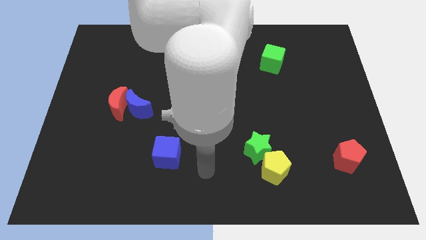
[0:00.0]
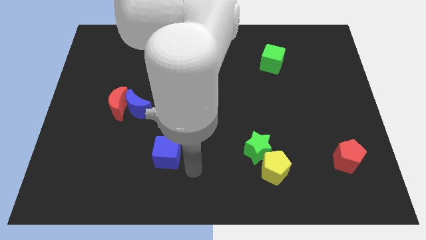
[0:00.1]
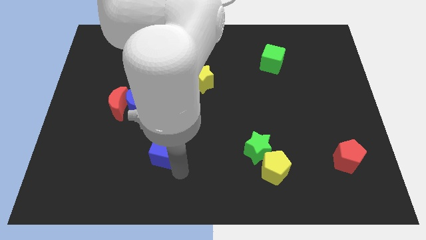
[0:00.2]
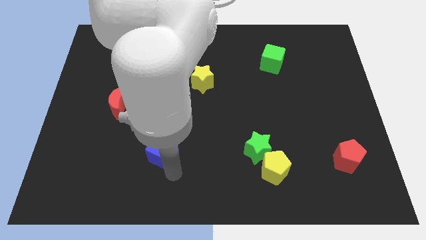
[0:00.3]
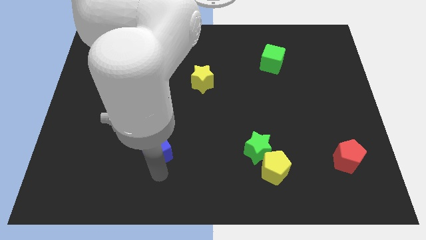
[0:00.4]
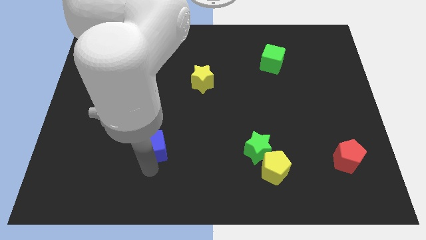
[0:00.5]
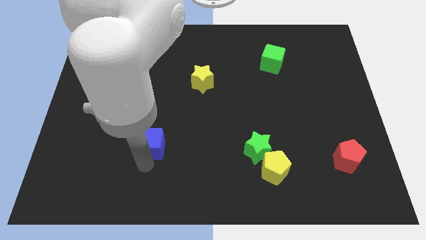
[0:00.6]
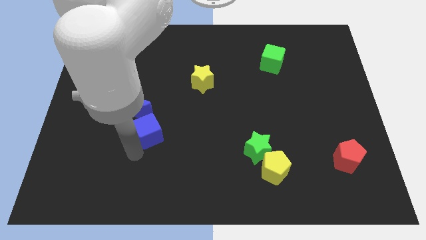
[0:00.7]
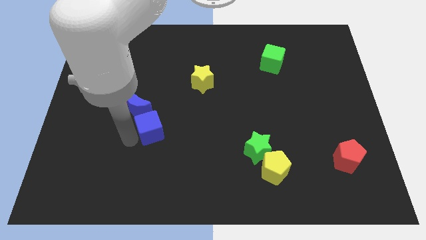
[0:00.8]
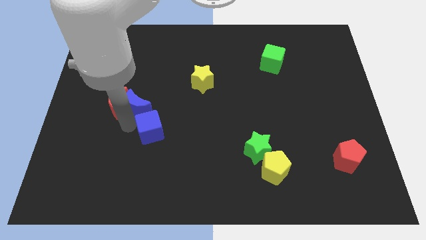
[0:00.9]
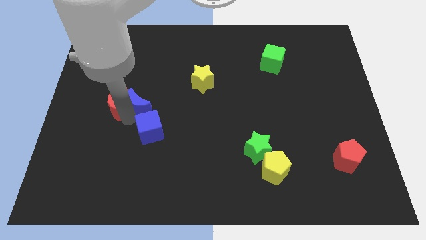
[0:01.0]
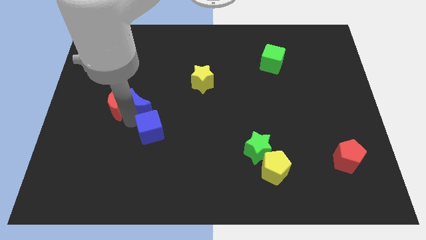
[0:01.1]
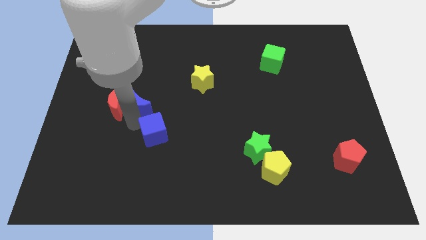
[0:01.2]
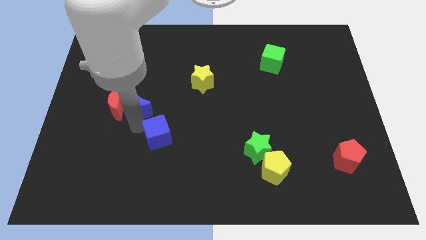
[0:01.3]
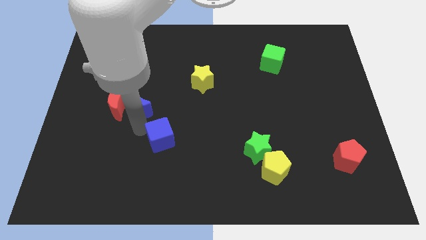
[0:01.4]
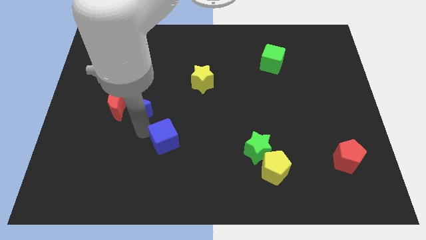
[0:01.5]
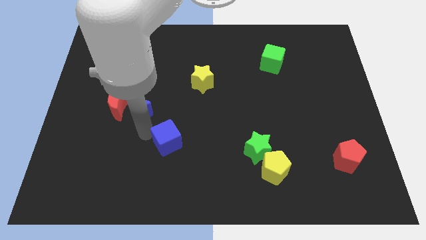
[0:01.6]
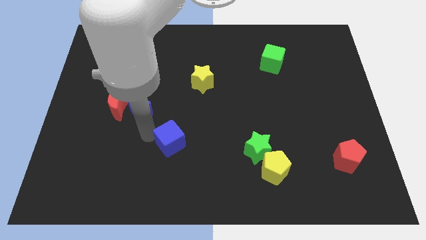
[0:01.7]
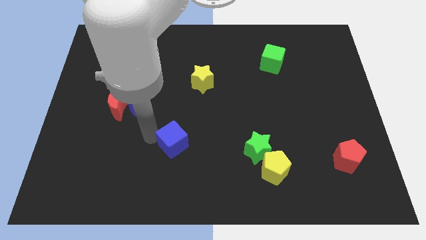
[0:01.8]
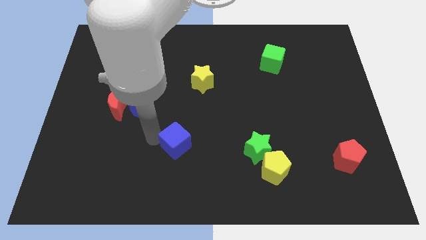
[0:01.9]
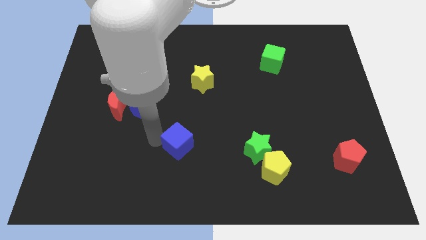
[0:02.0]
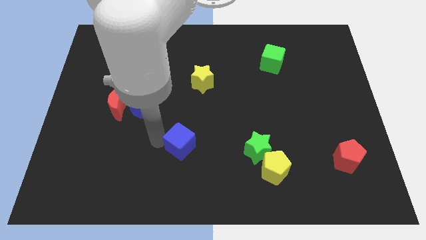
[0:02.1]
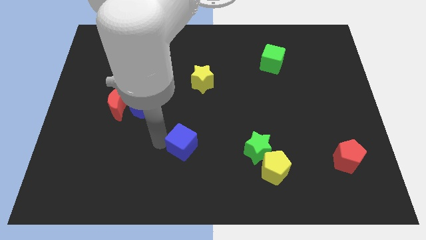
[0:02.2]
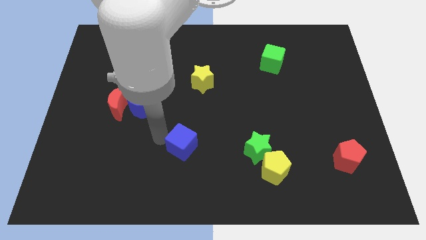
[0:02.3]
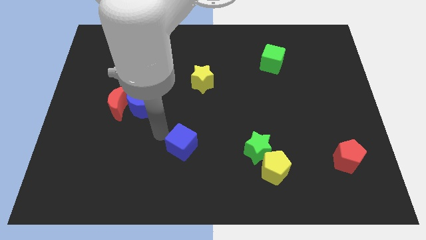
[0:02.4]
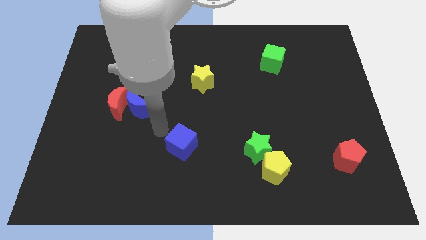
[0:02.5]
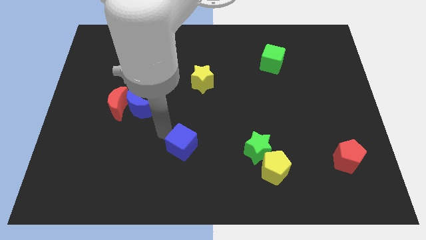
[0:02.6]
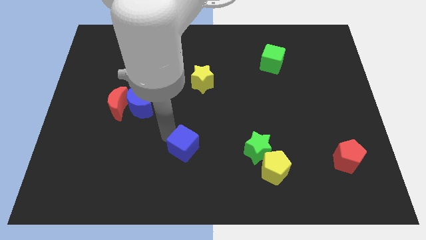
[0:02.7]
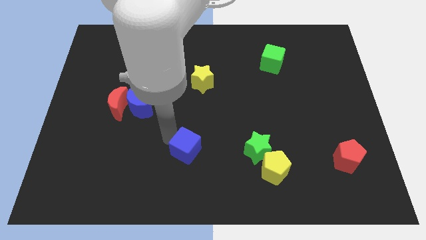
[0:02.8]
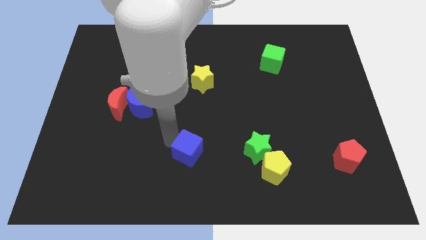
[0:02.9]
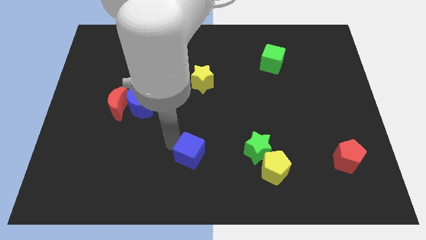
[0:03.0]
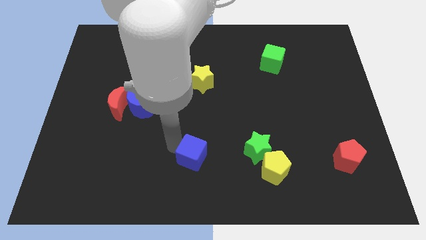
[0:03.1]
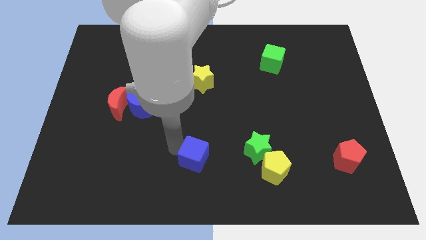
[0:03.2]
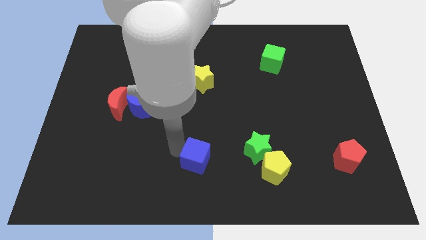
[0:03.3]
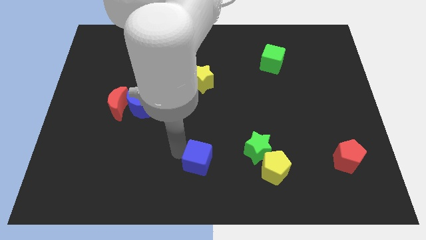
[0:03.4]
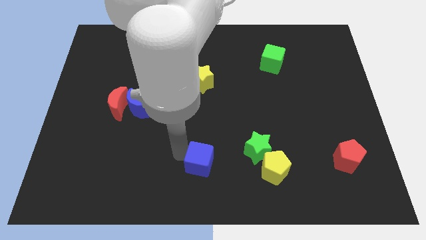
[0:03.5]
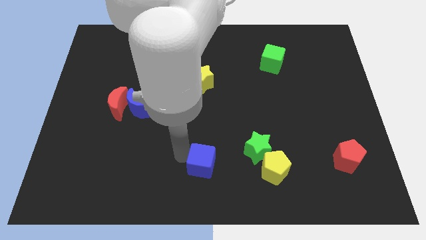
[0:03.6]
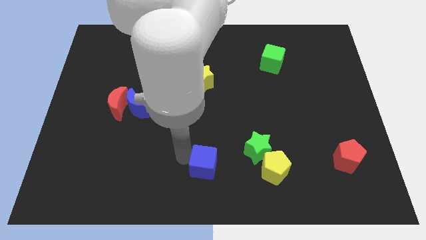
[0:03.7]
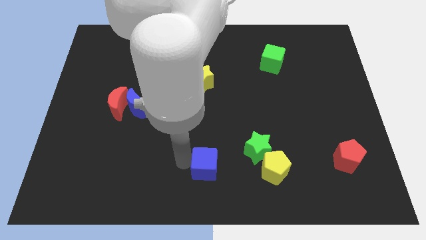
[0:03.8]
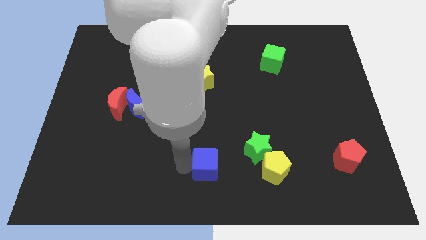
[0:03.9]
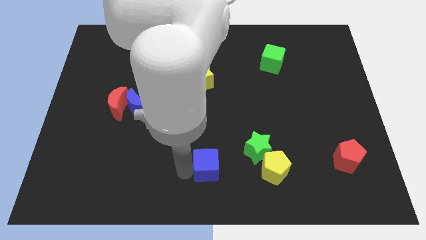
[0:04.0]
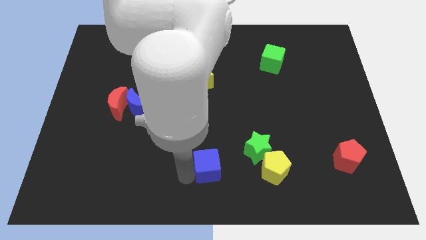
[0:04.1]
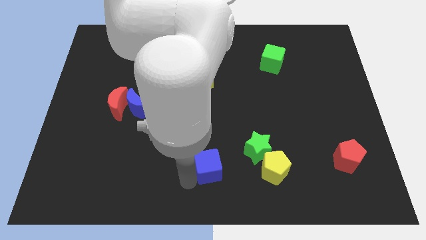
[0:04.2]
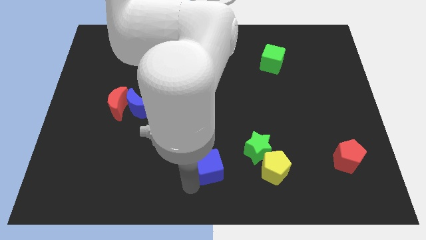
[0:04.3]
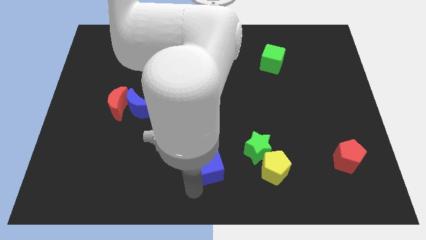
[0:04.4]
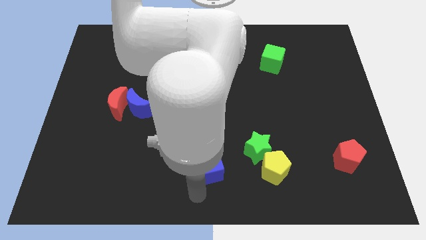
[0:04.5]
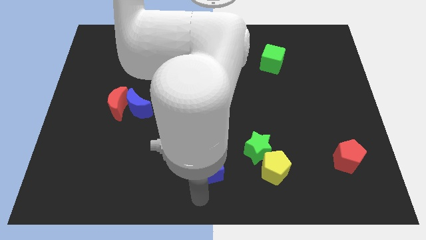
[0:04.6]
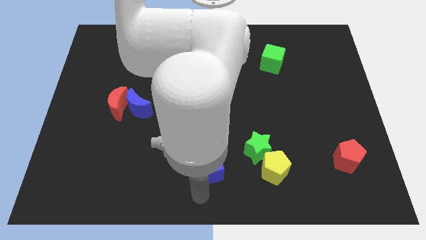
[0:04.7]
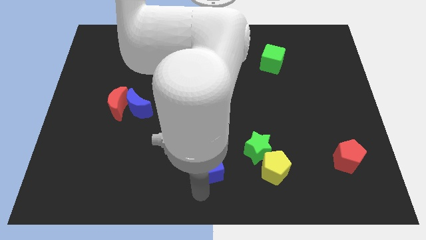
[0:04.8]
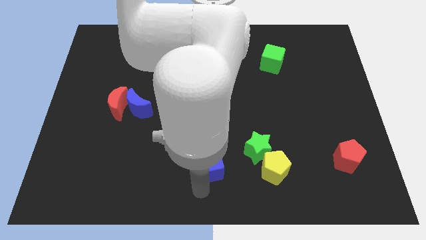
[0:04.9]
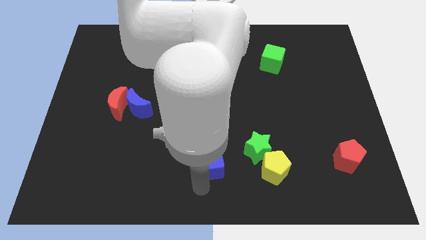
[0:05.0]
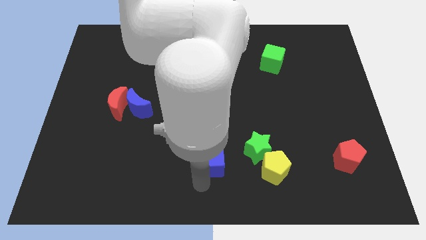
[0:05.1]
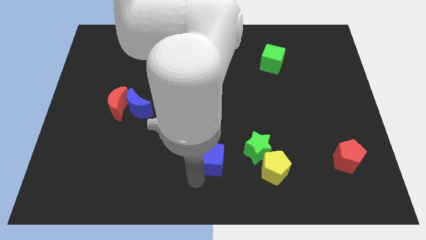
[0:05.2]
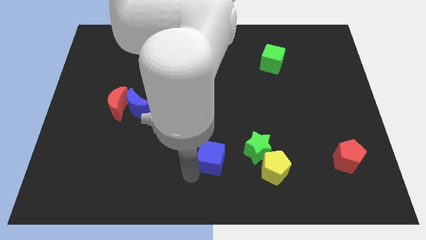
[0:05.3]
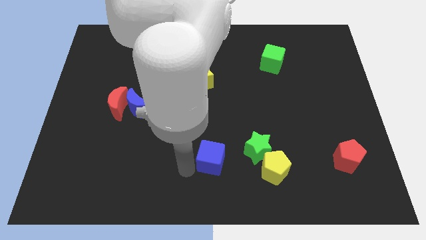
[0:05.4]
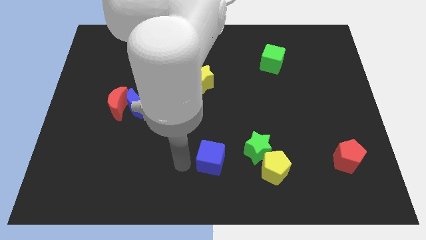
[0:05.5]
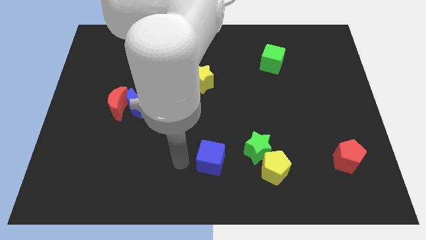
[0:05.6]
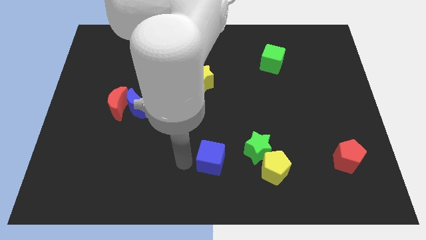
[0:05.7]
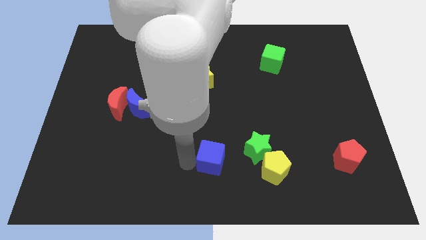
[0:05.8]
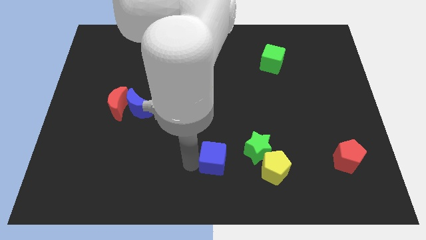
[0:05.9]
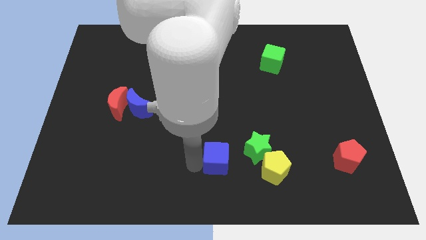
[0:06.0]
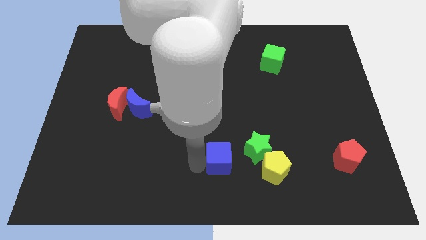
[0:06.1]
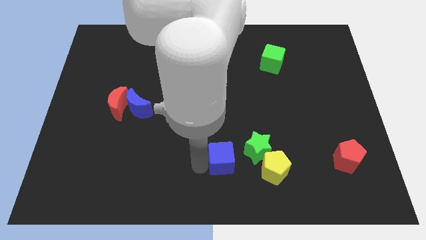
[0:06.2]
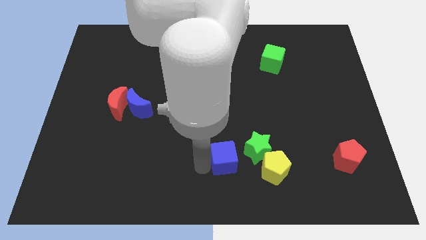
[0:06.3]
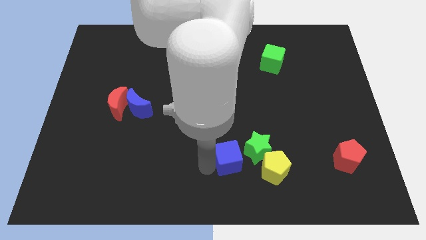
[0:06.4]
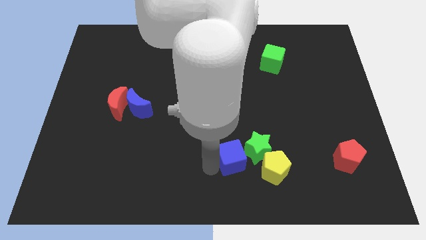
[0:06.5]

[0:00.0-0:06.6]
slide the blue cube close to the green star

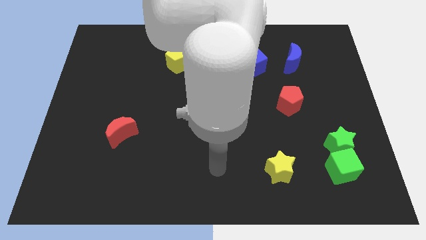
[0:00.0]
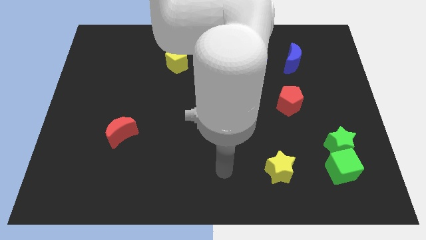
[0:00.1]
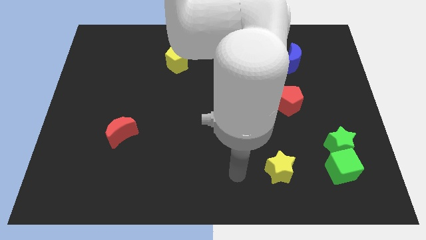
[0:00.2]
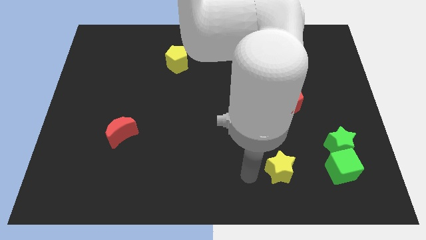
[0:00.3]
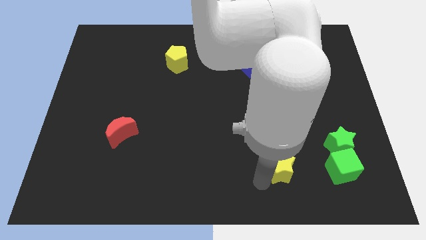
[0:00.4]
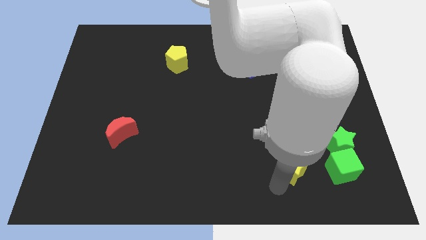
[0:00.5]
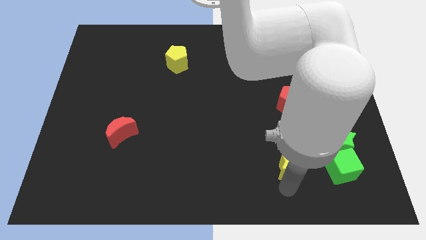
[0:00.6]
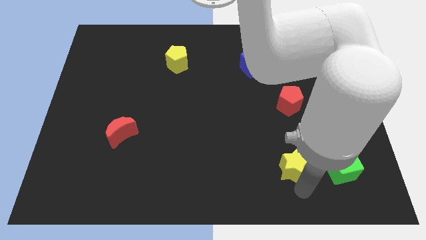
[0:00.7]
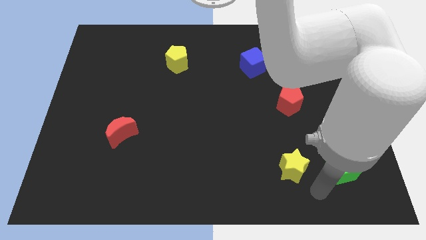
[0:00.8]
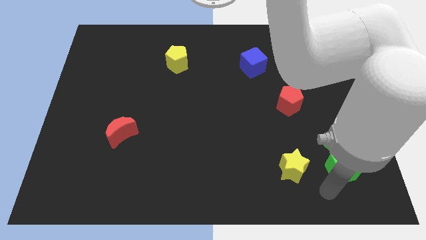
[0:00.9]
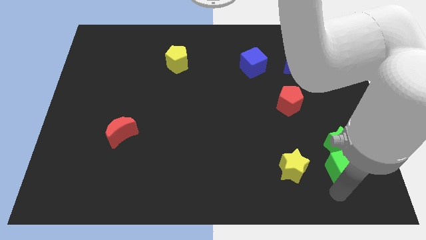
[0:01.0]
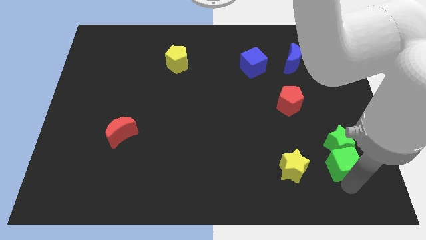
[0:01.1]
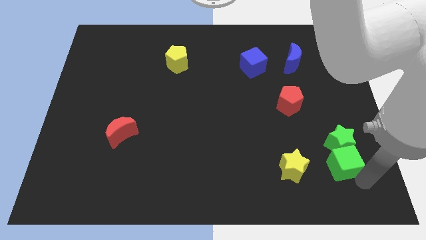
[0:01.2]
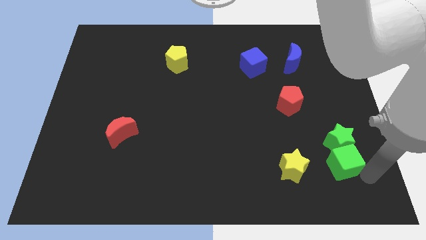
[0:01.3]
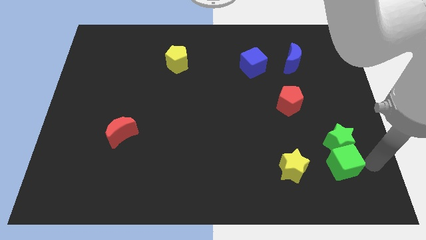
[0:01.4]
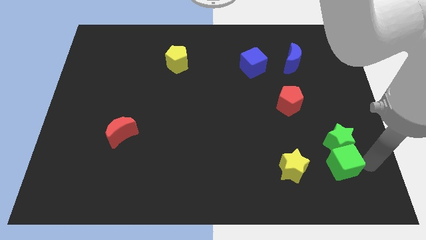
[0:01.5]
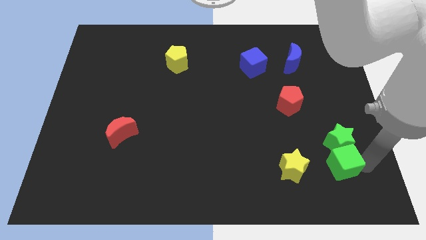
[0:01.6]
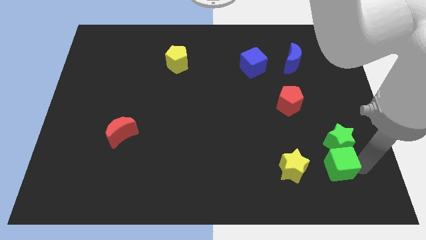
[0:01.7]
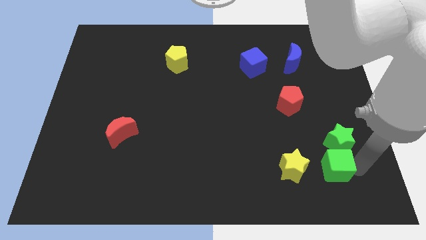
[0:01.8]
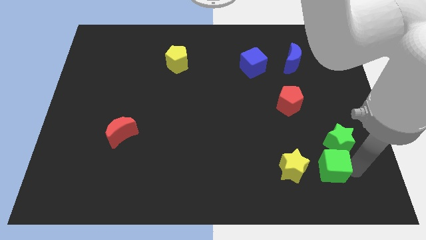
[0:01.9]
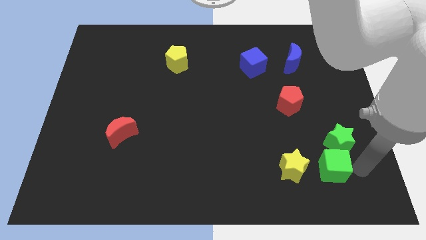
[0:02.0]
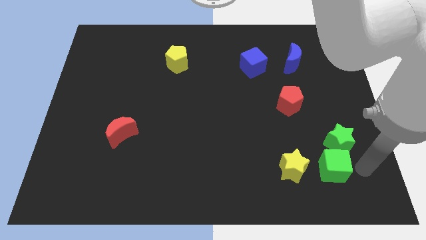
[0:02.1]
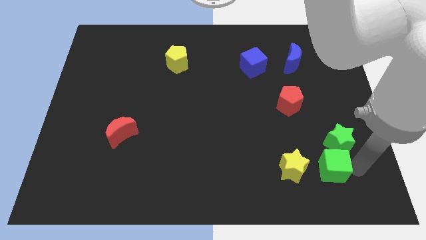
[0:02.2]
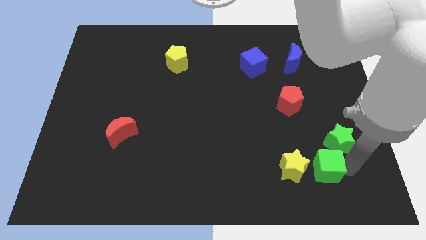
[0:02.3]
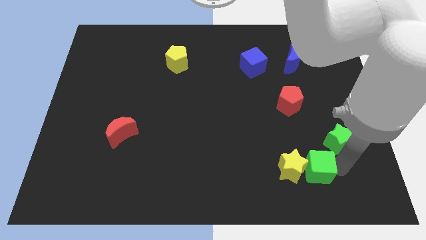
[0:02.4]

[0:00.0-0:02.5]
slide the green cube towards the yellow star
